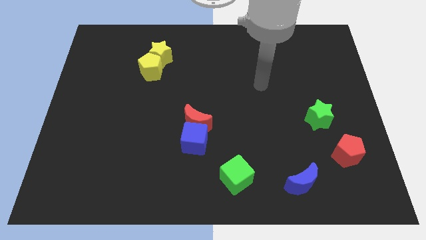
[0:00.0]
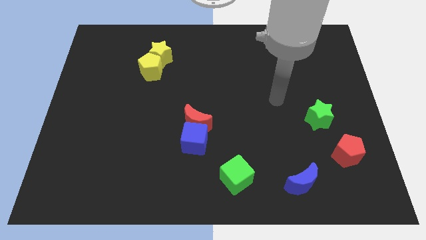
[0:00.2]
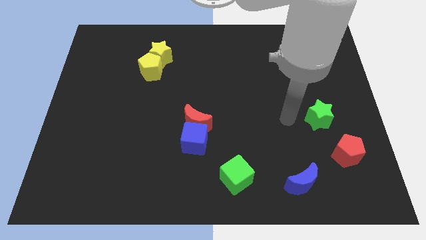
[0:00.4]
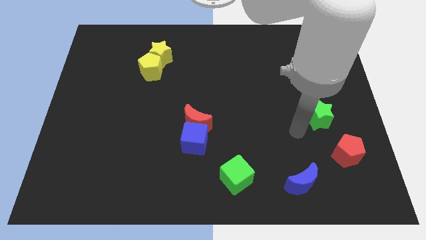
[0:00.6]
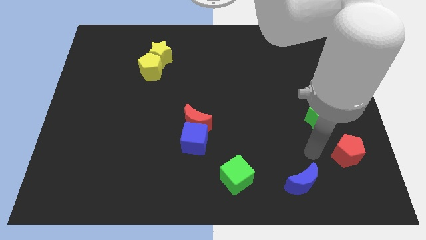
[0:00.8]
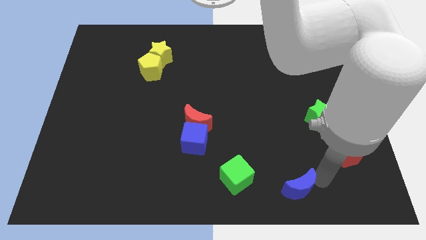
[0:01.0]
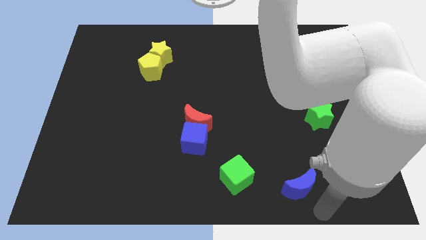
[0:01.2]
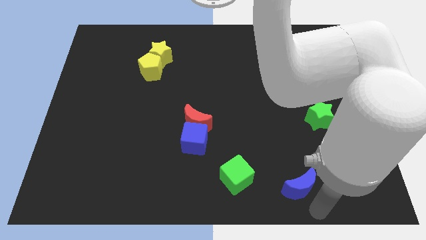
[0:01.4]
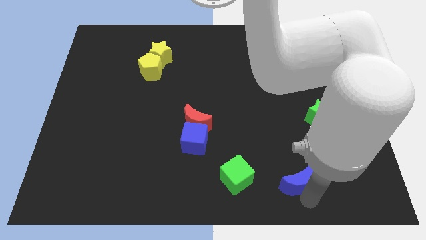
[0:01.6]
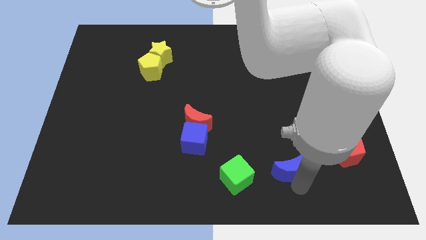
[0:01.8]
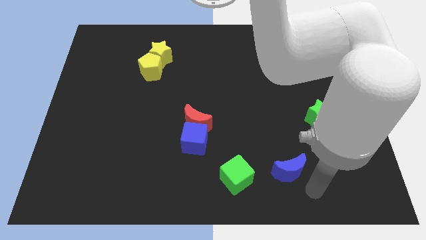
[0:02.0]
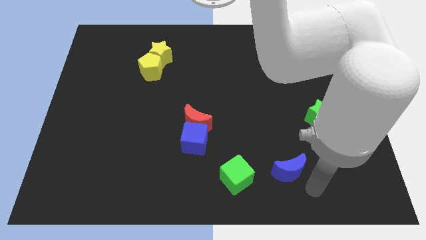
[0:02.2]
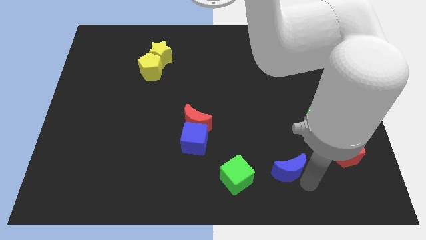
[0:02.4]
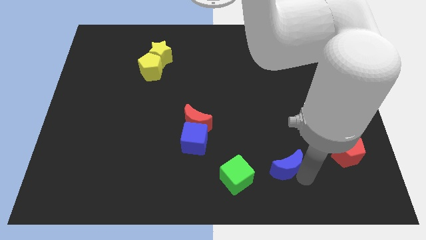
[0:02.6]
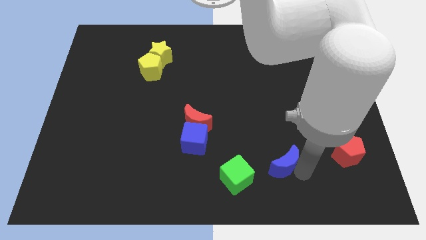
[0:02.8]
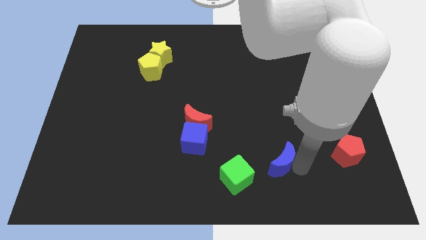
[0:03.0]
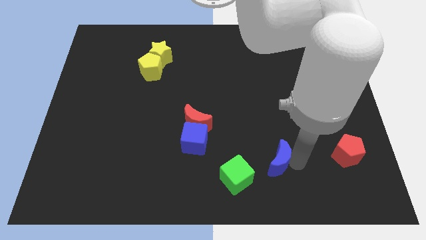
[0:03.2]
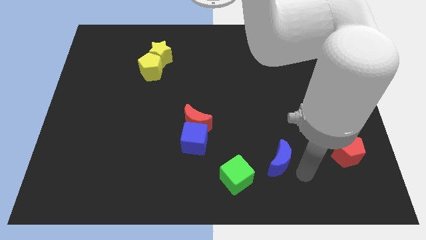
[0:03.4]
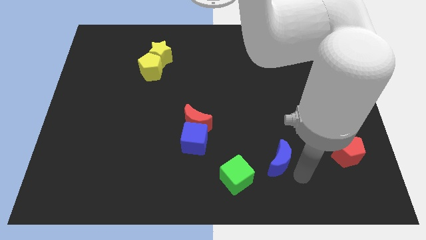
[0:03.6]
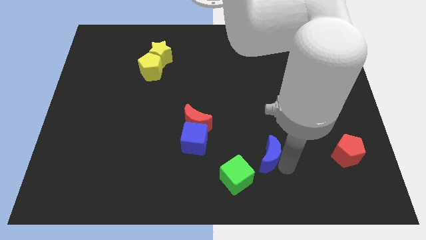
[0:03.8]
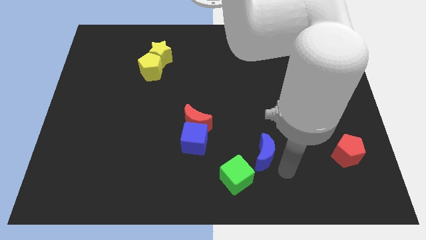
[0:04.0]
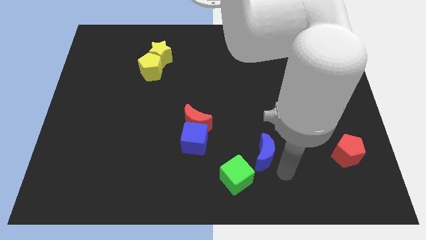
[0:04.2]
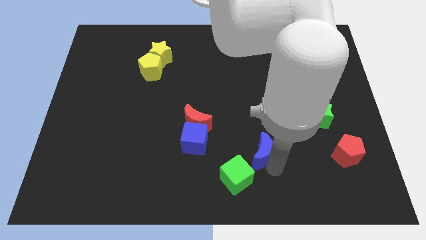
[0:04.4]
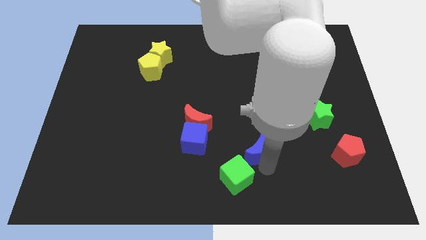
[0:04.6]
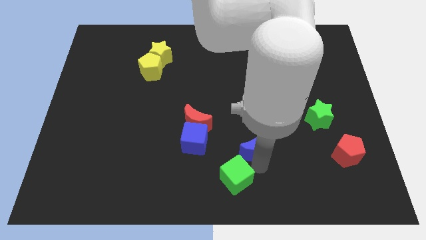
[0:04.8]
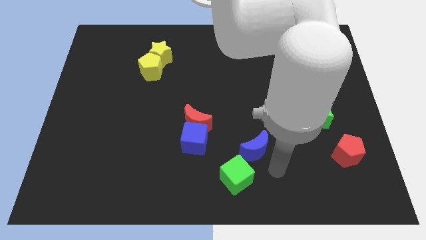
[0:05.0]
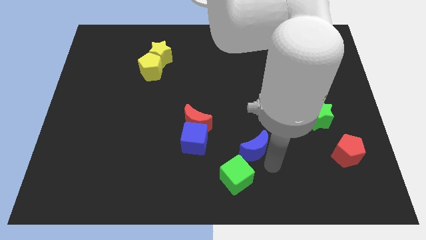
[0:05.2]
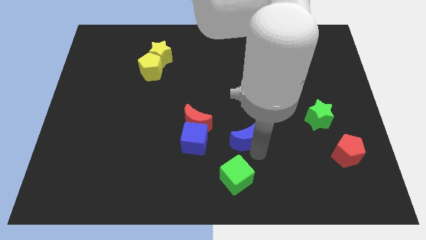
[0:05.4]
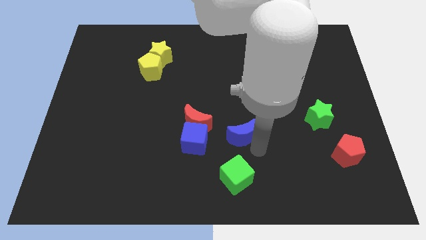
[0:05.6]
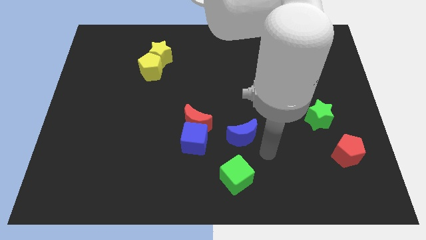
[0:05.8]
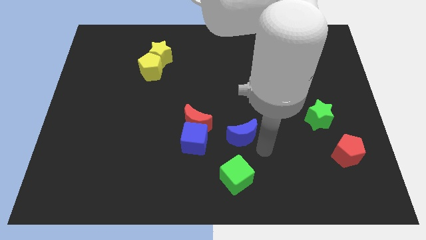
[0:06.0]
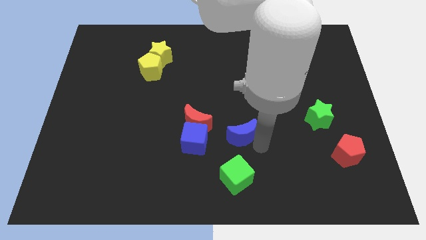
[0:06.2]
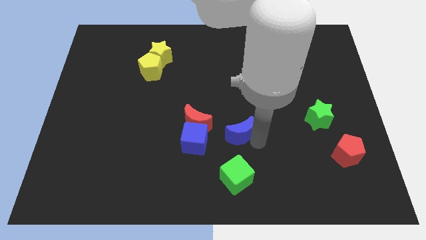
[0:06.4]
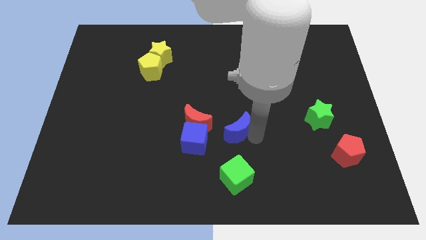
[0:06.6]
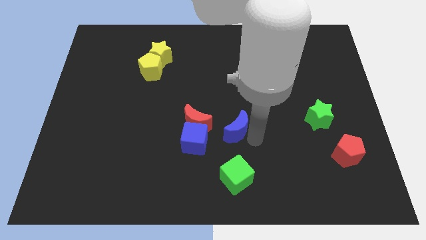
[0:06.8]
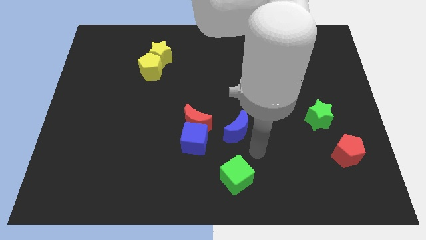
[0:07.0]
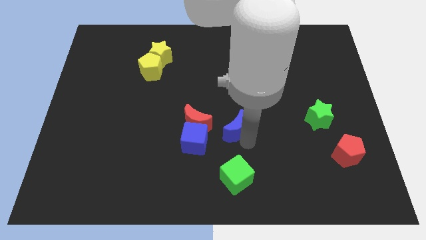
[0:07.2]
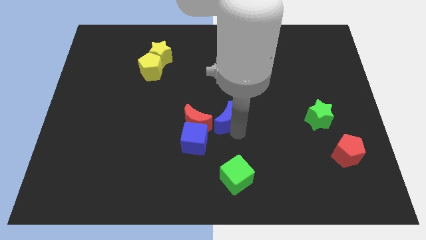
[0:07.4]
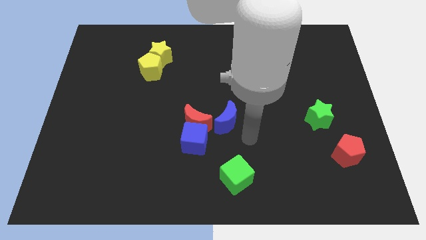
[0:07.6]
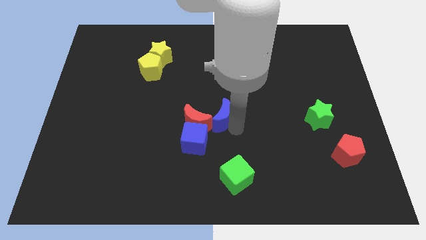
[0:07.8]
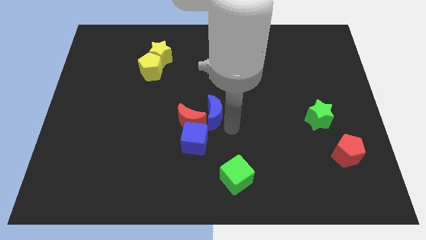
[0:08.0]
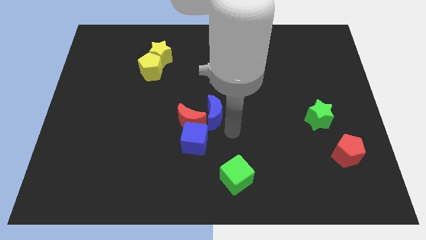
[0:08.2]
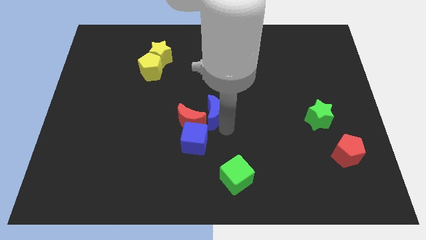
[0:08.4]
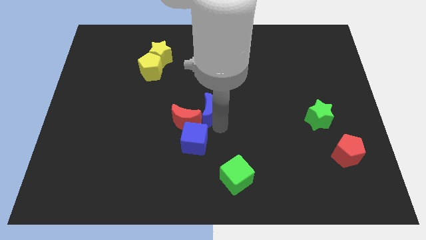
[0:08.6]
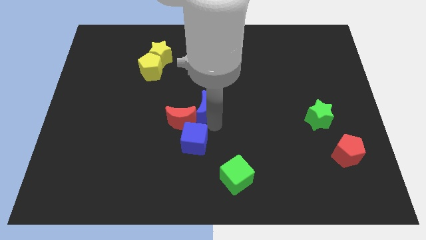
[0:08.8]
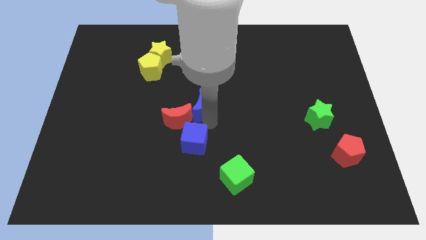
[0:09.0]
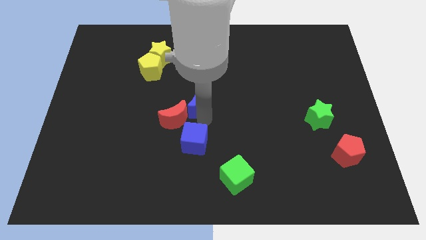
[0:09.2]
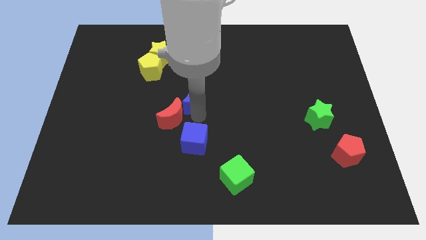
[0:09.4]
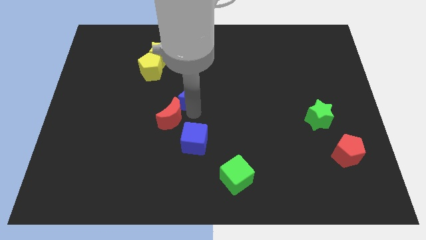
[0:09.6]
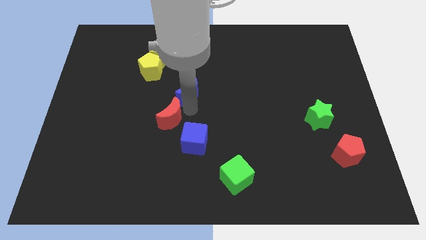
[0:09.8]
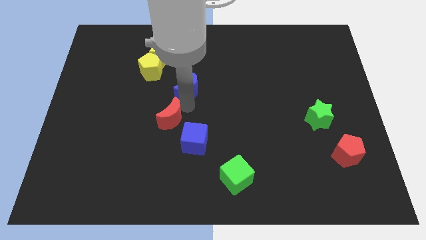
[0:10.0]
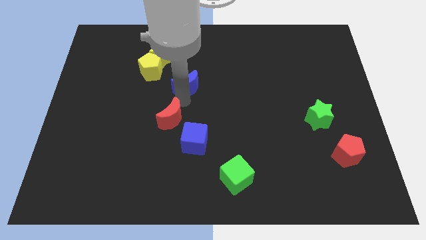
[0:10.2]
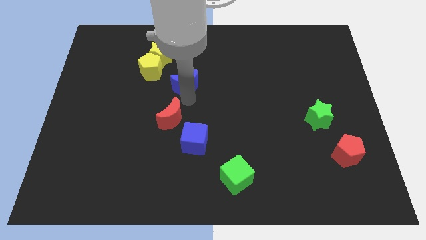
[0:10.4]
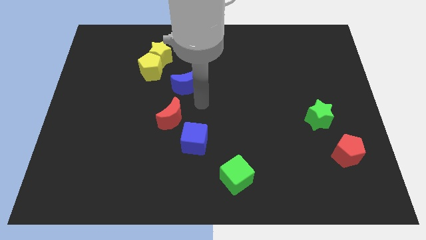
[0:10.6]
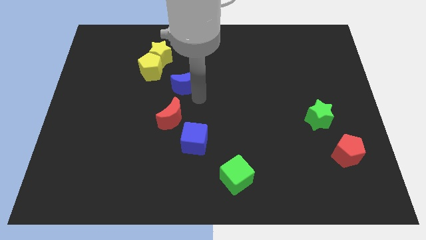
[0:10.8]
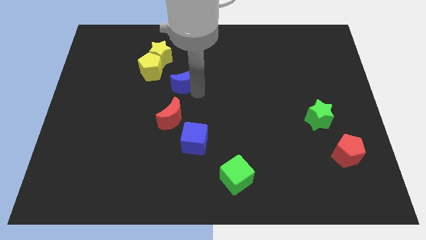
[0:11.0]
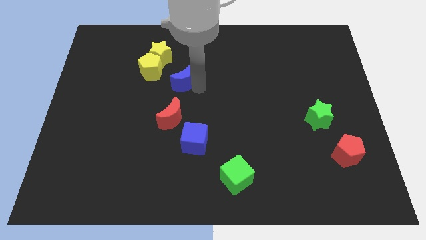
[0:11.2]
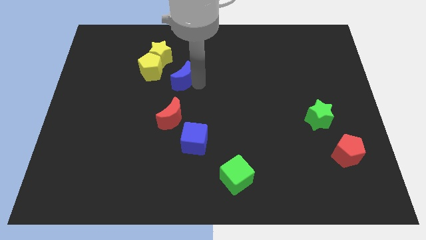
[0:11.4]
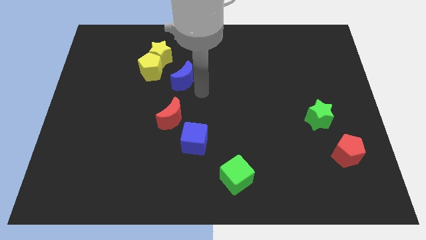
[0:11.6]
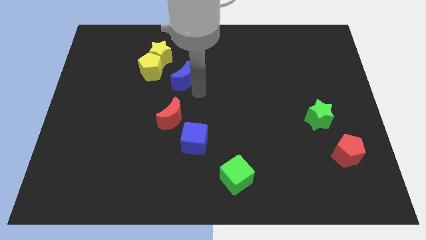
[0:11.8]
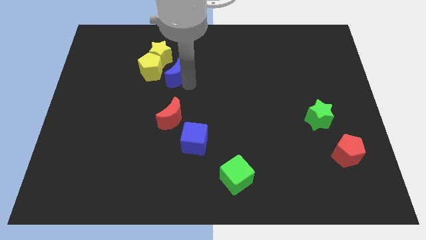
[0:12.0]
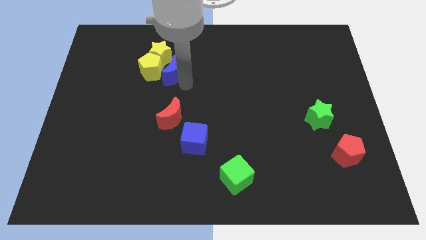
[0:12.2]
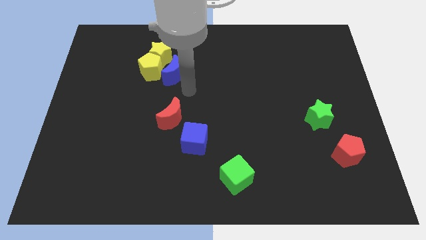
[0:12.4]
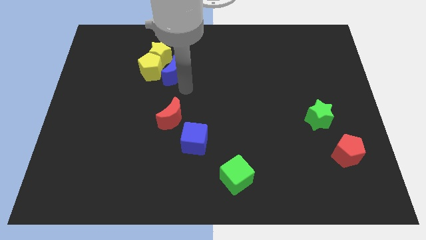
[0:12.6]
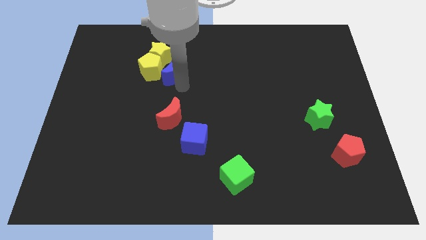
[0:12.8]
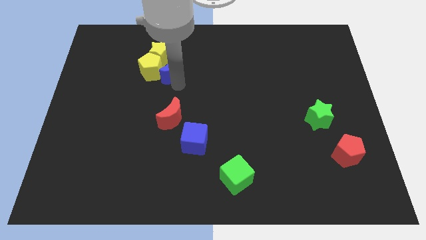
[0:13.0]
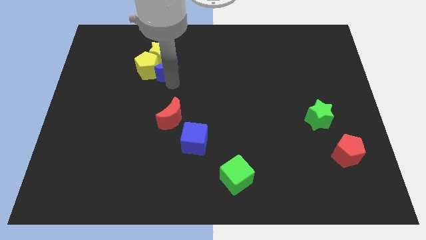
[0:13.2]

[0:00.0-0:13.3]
slide the blue moon close to the yellow star

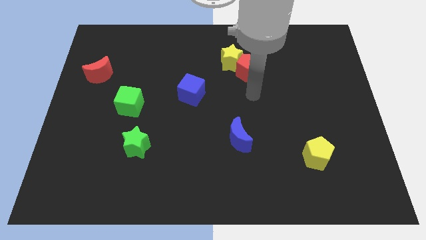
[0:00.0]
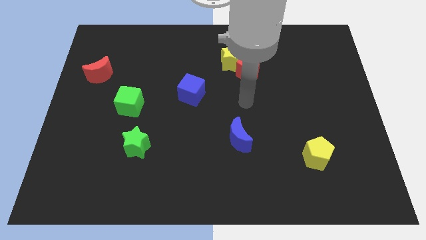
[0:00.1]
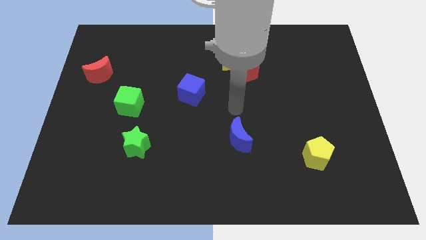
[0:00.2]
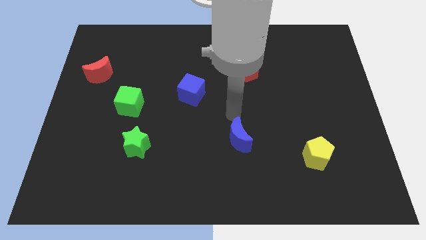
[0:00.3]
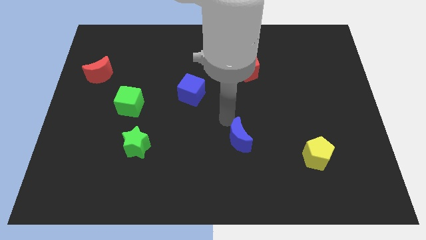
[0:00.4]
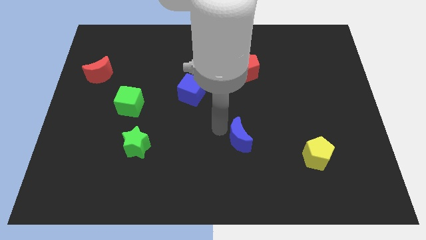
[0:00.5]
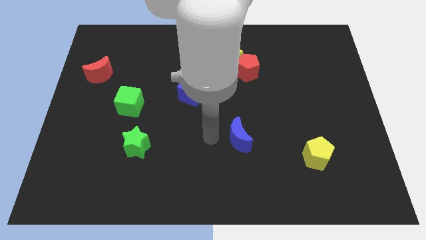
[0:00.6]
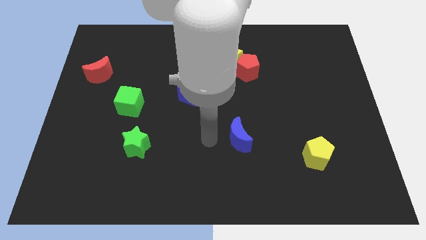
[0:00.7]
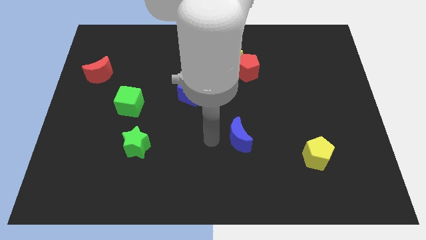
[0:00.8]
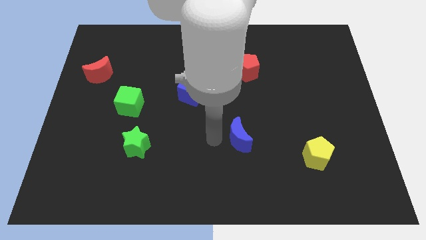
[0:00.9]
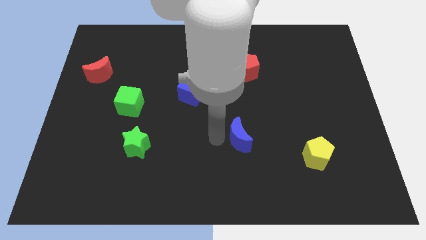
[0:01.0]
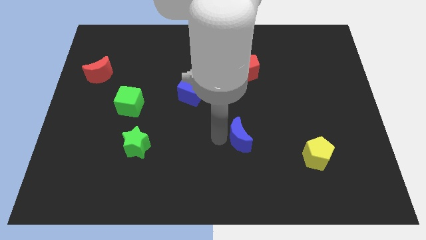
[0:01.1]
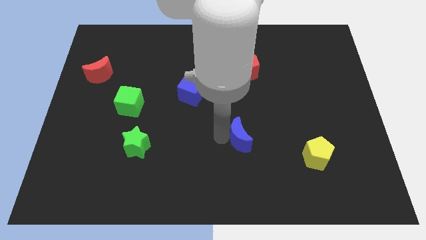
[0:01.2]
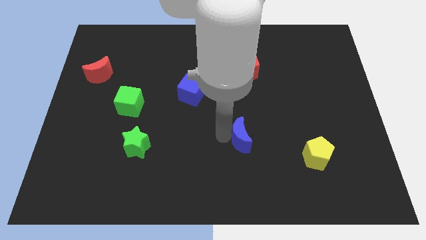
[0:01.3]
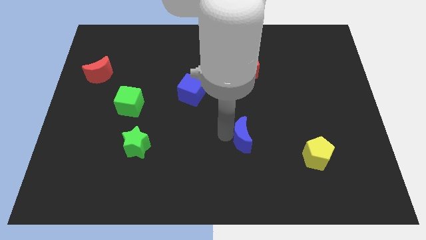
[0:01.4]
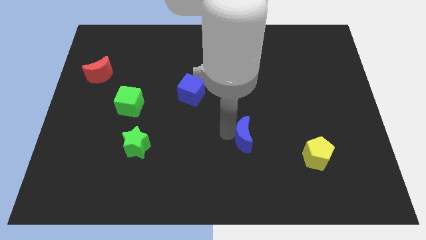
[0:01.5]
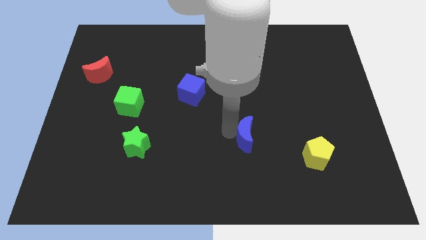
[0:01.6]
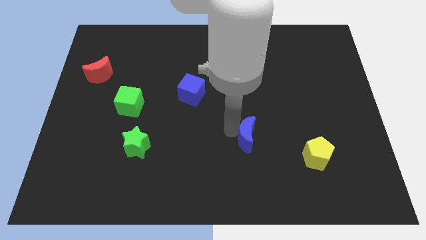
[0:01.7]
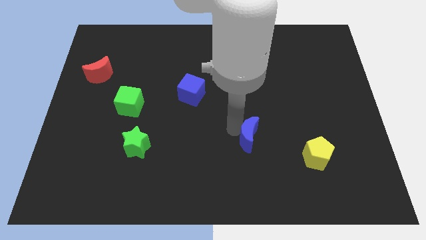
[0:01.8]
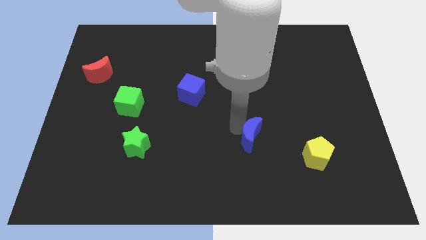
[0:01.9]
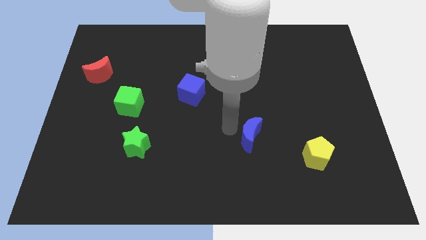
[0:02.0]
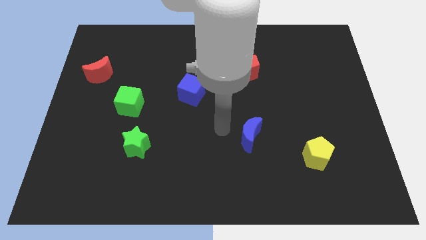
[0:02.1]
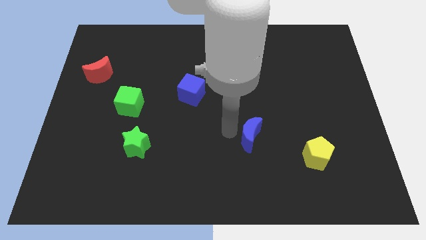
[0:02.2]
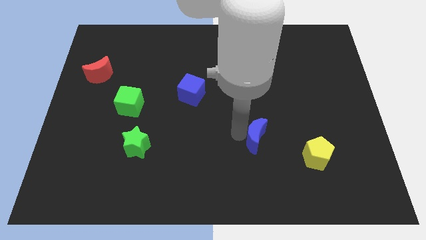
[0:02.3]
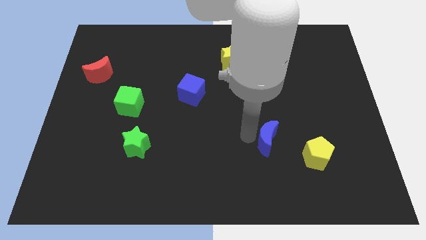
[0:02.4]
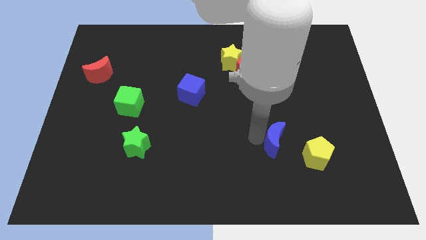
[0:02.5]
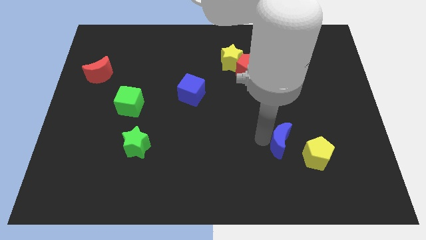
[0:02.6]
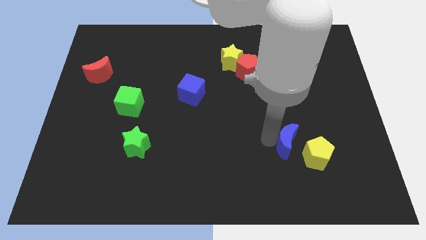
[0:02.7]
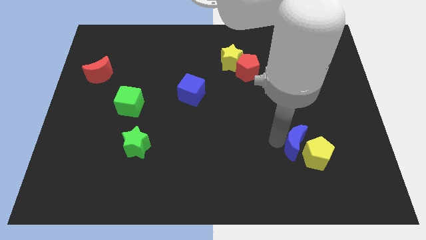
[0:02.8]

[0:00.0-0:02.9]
put the blue moon close to the yellow pentagon
